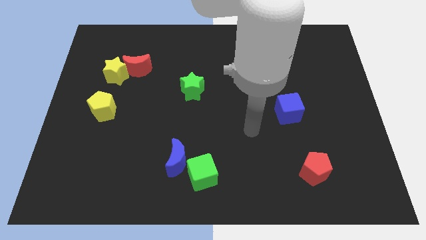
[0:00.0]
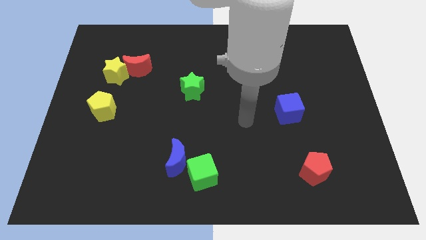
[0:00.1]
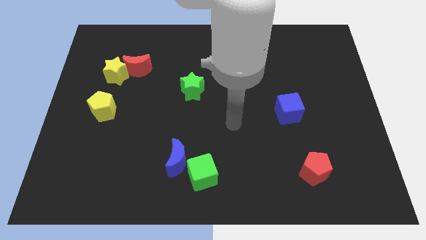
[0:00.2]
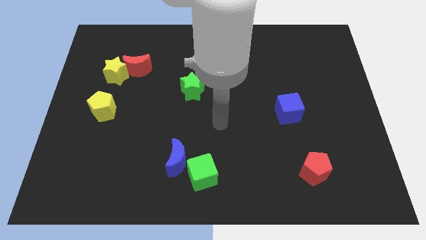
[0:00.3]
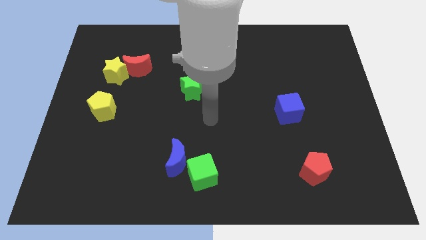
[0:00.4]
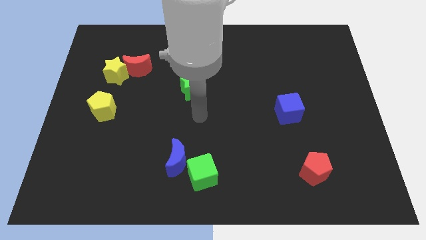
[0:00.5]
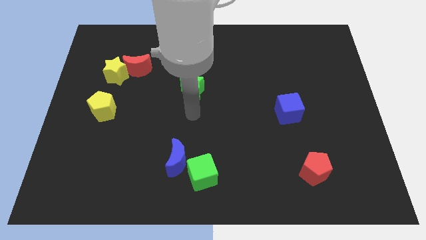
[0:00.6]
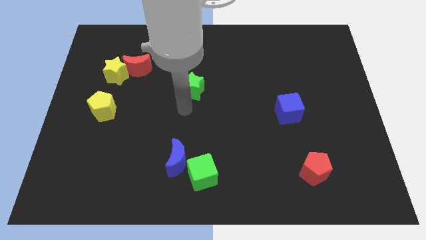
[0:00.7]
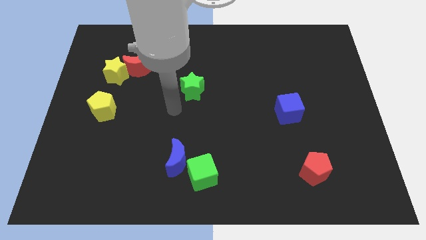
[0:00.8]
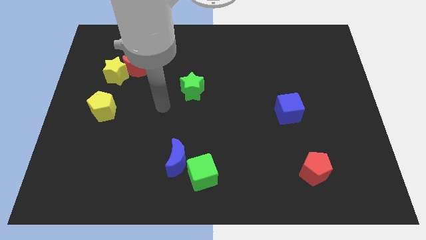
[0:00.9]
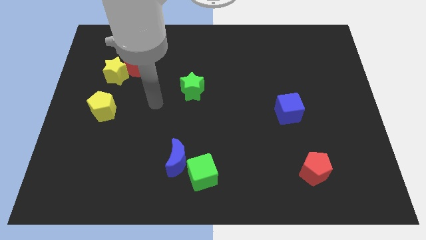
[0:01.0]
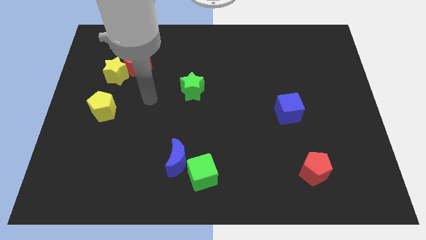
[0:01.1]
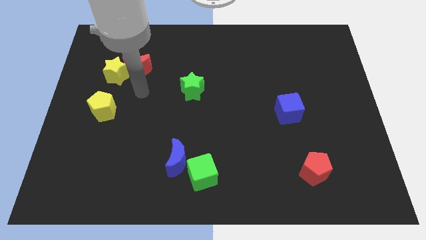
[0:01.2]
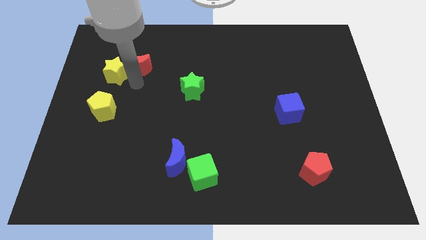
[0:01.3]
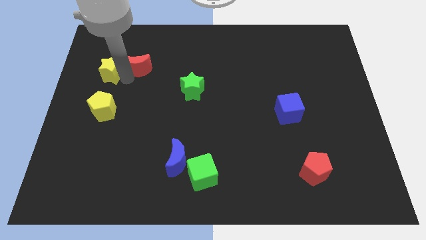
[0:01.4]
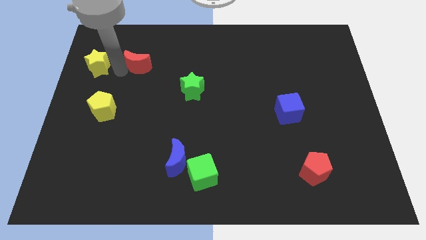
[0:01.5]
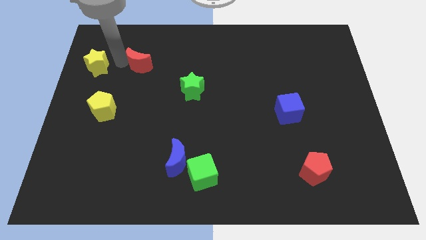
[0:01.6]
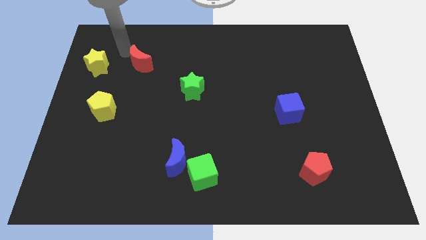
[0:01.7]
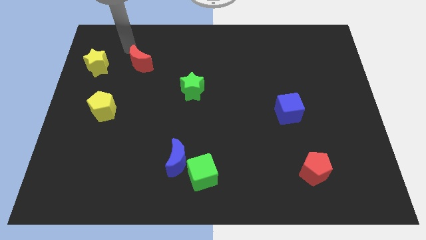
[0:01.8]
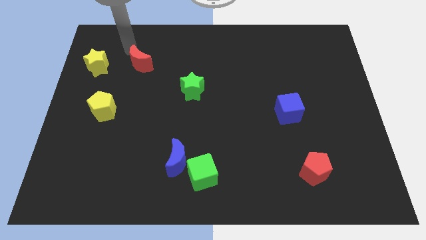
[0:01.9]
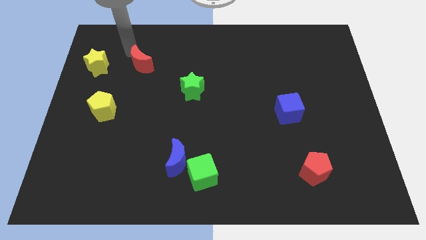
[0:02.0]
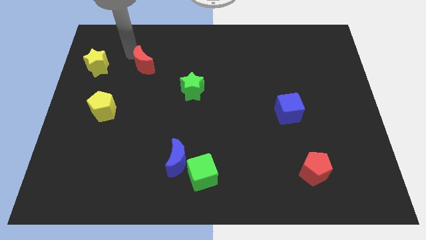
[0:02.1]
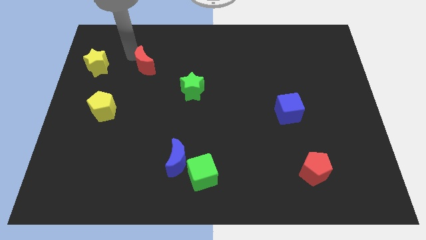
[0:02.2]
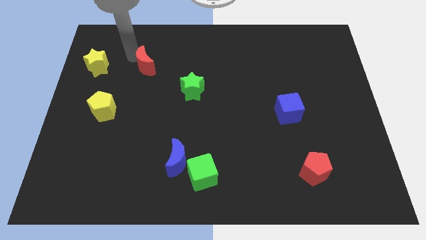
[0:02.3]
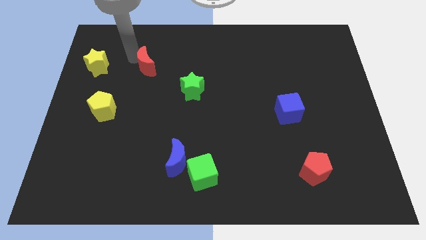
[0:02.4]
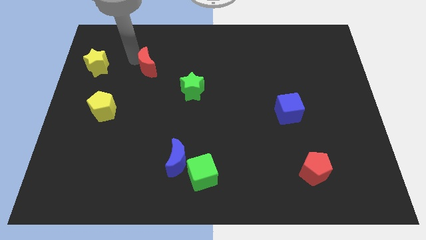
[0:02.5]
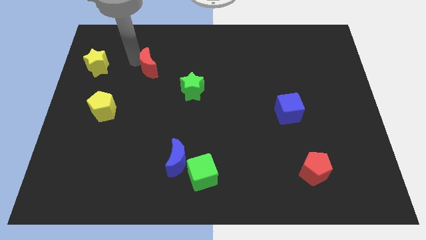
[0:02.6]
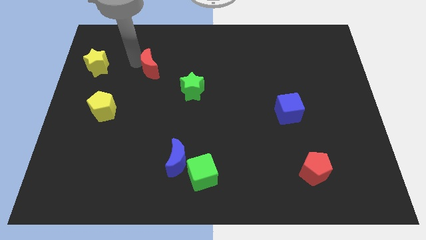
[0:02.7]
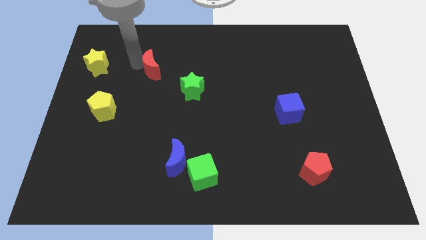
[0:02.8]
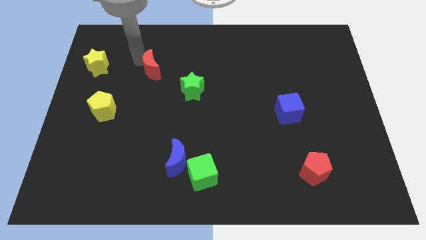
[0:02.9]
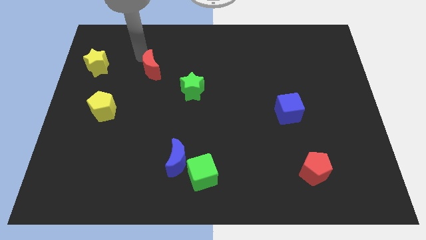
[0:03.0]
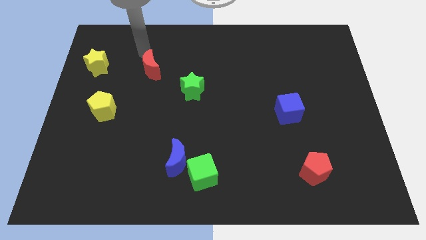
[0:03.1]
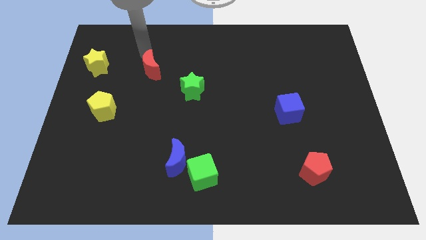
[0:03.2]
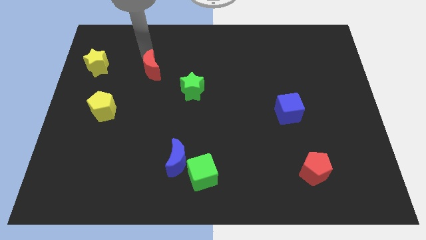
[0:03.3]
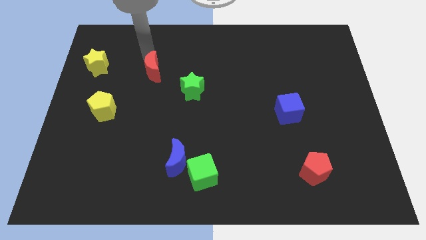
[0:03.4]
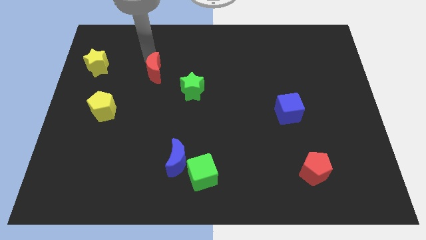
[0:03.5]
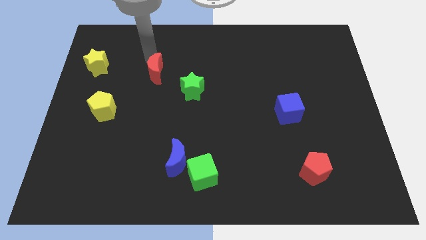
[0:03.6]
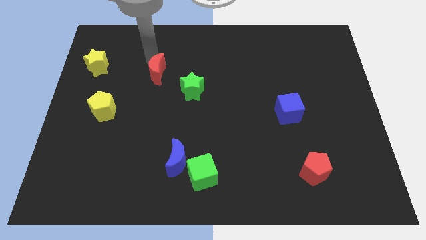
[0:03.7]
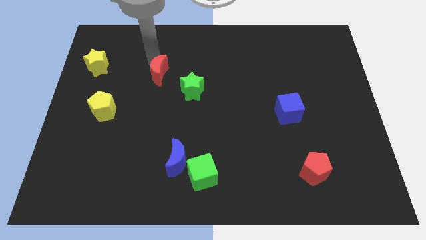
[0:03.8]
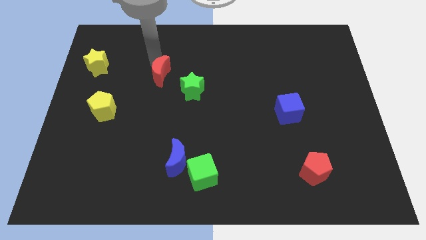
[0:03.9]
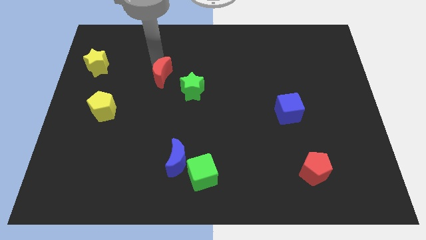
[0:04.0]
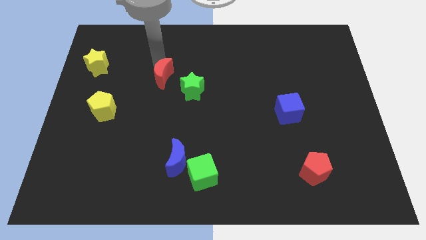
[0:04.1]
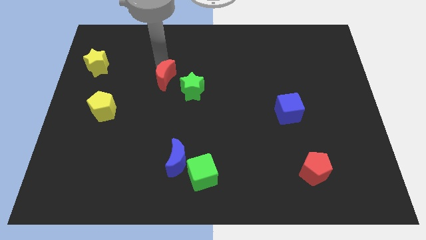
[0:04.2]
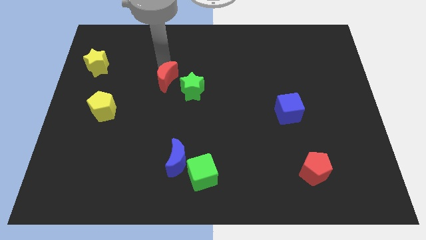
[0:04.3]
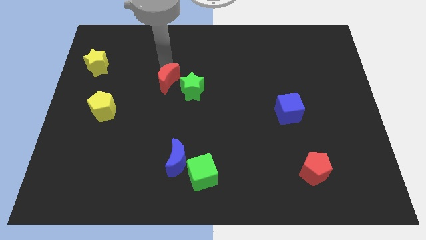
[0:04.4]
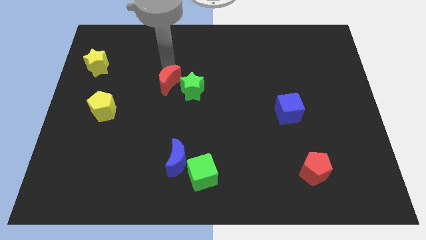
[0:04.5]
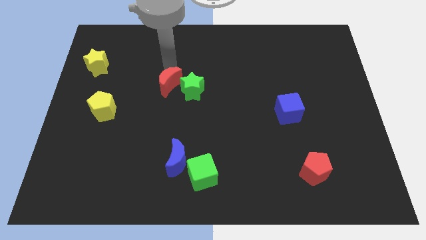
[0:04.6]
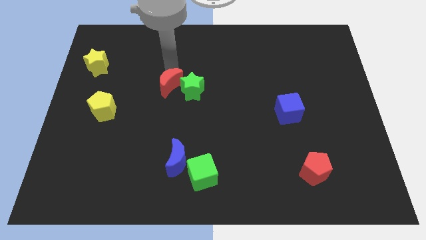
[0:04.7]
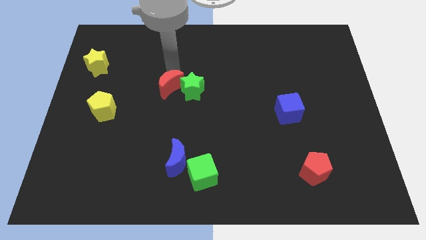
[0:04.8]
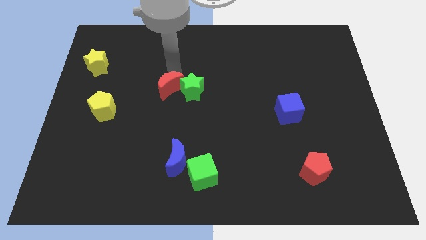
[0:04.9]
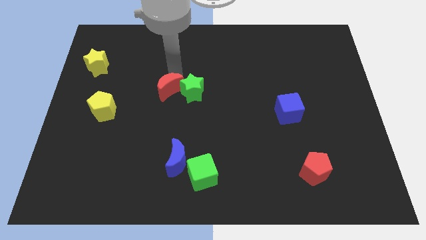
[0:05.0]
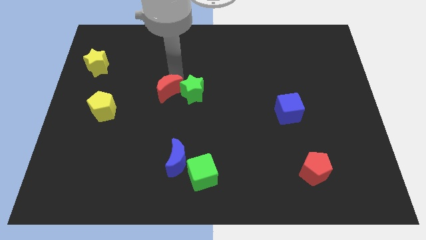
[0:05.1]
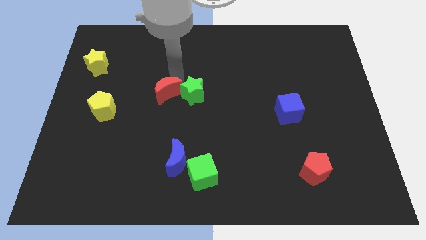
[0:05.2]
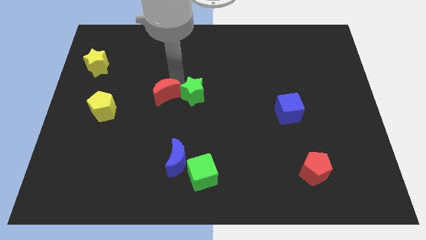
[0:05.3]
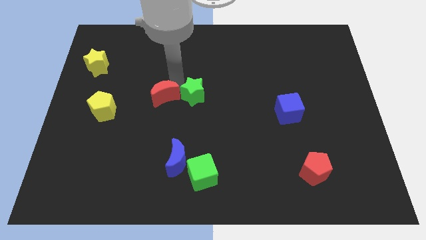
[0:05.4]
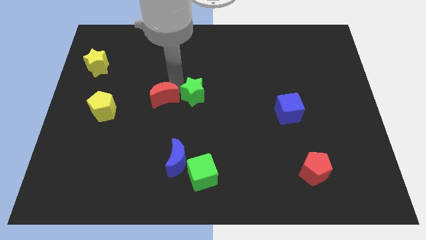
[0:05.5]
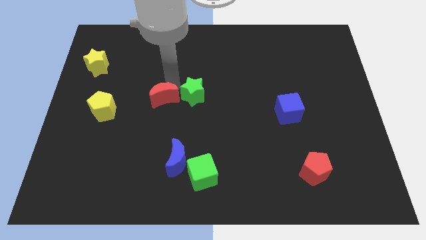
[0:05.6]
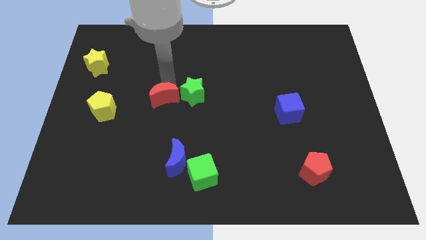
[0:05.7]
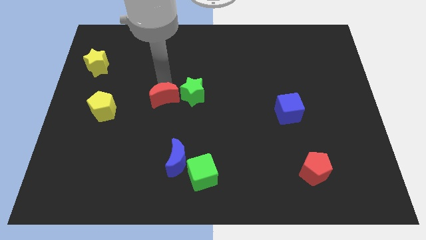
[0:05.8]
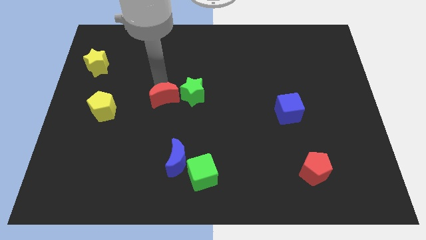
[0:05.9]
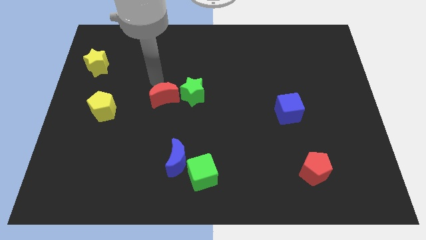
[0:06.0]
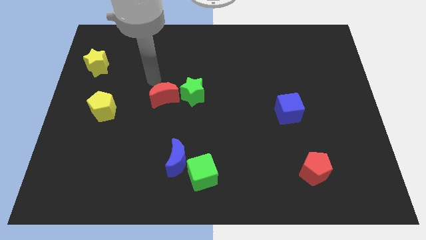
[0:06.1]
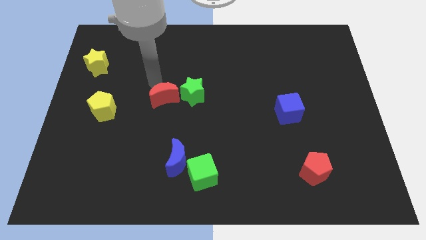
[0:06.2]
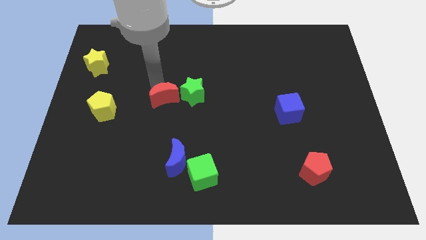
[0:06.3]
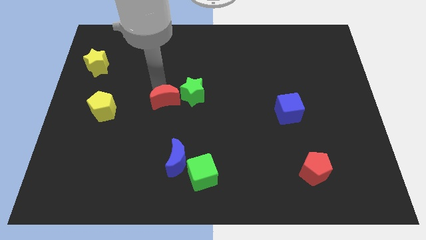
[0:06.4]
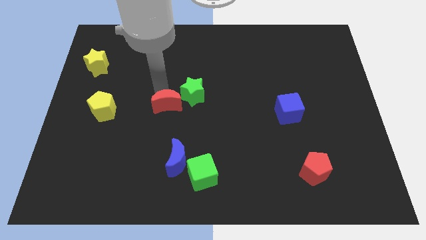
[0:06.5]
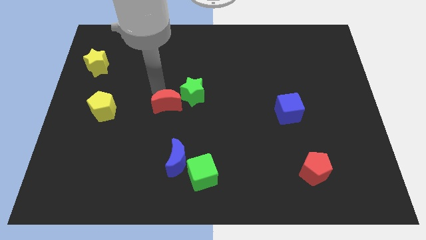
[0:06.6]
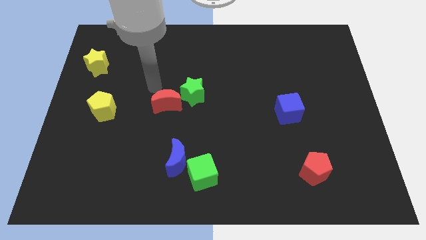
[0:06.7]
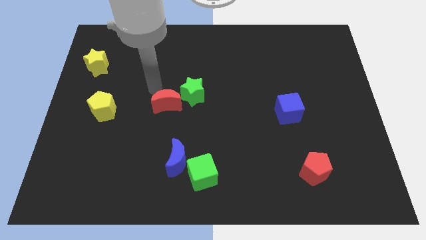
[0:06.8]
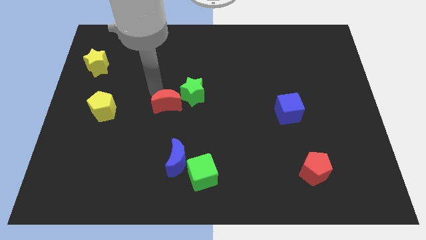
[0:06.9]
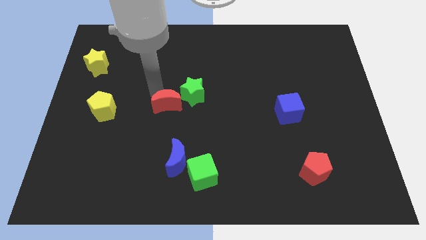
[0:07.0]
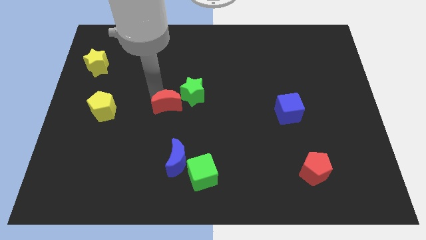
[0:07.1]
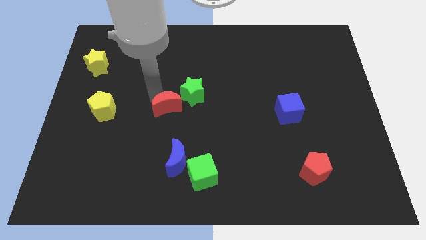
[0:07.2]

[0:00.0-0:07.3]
push the red moon above the blue moon
